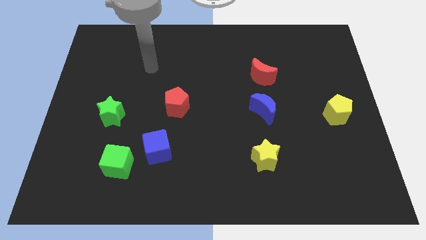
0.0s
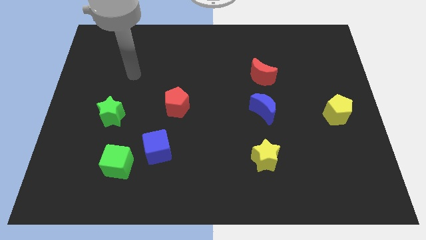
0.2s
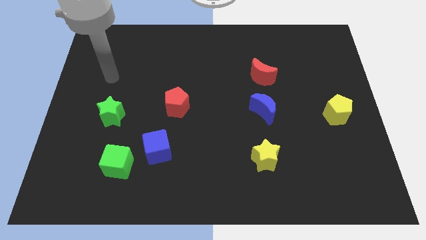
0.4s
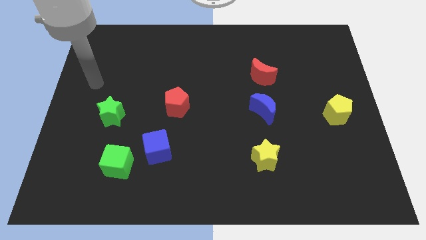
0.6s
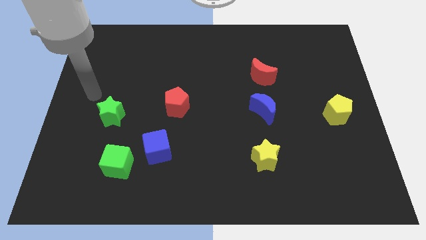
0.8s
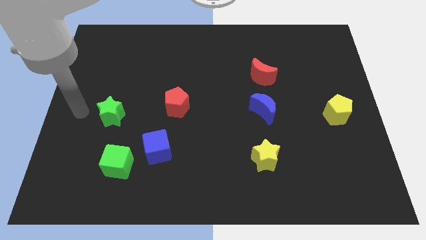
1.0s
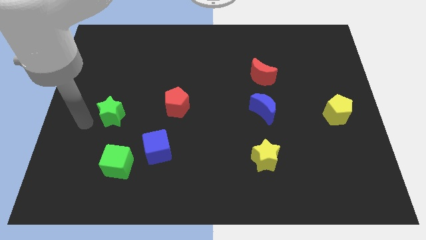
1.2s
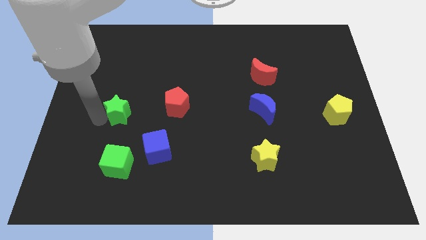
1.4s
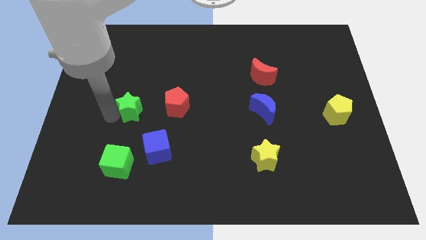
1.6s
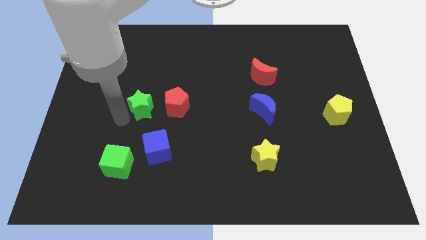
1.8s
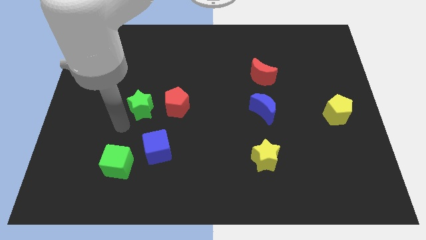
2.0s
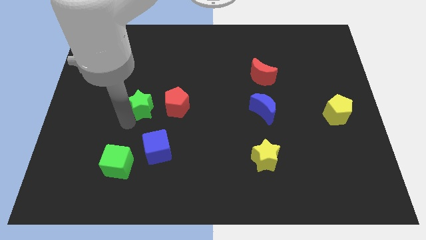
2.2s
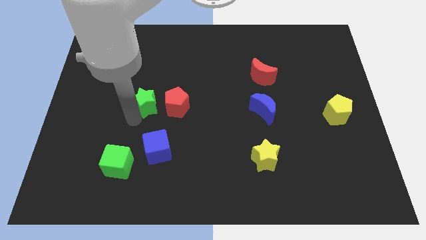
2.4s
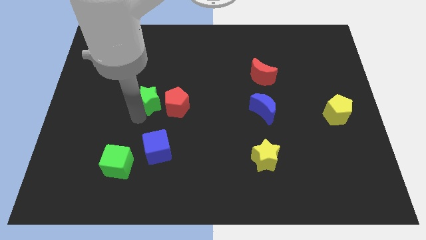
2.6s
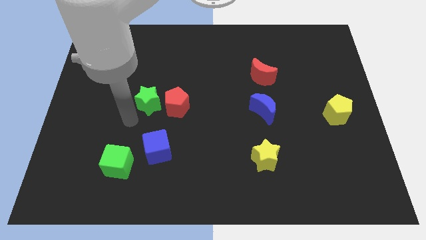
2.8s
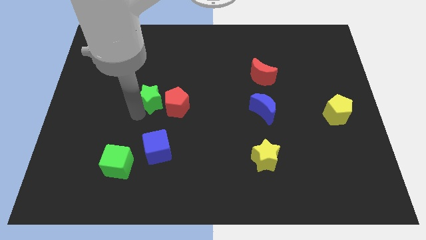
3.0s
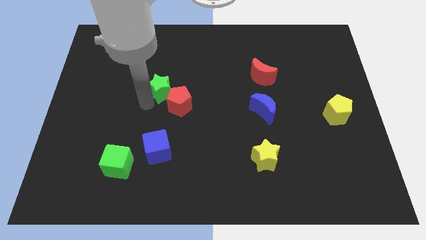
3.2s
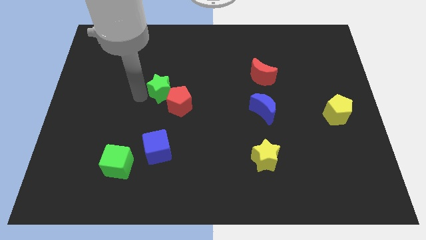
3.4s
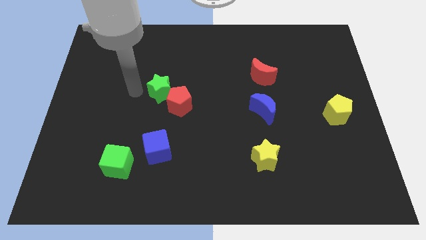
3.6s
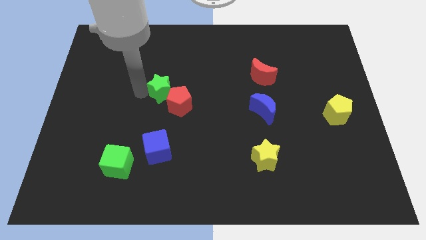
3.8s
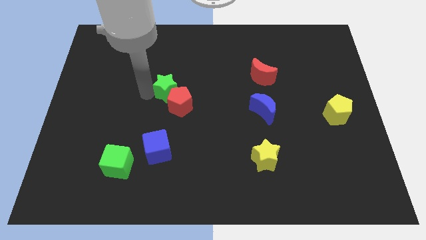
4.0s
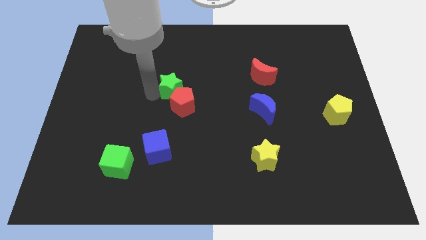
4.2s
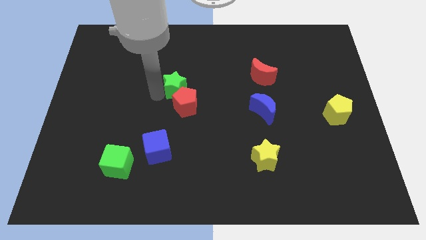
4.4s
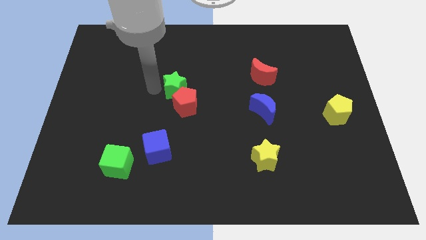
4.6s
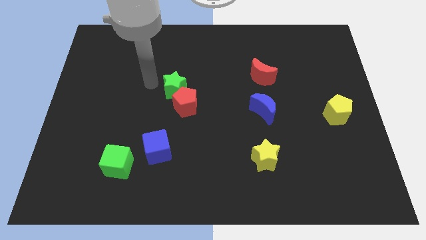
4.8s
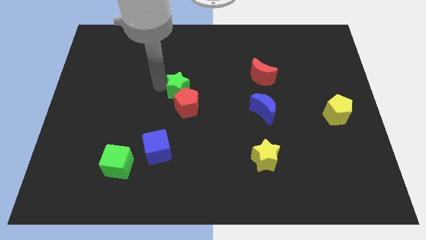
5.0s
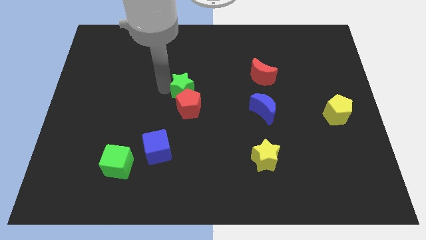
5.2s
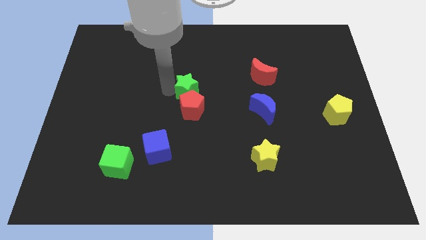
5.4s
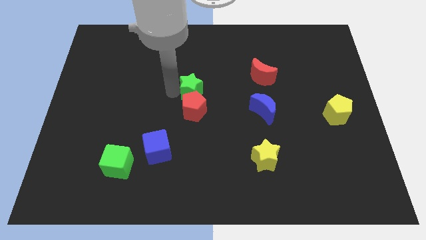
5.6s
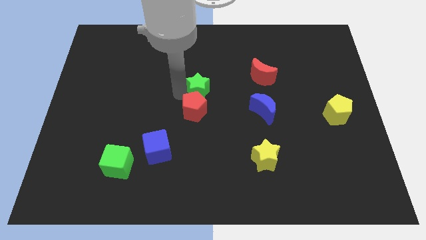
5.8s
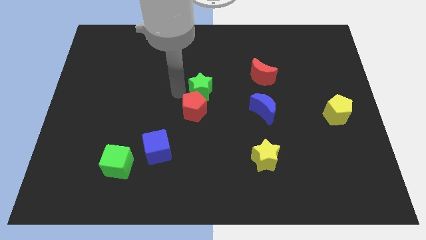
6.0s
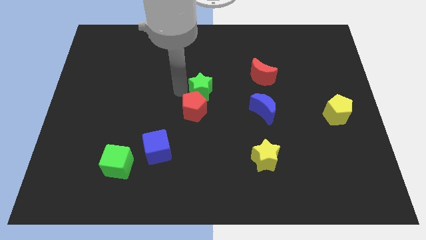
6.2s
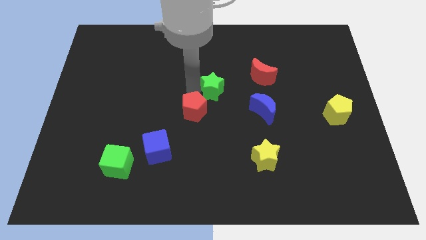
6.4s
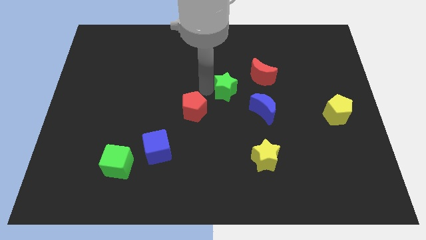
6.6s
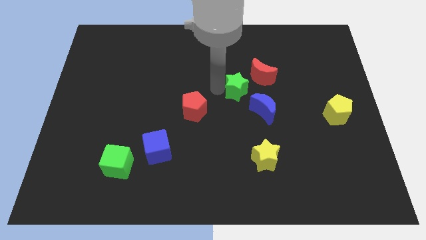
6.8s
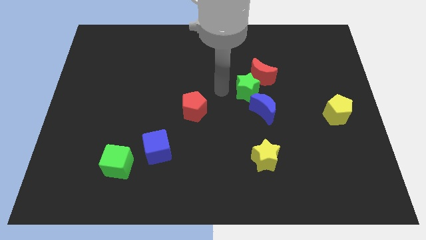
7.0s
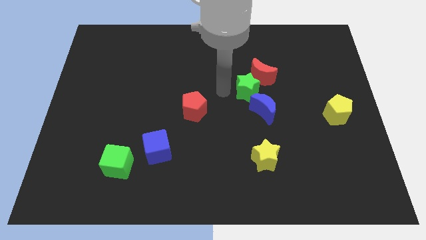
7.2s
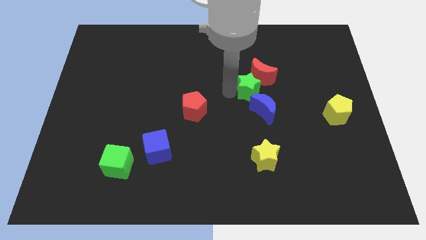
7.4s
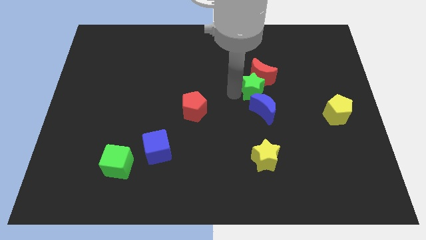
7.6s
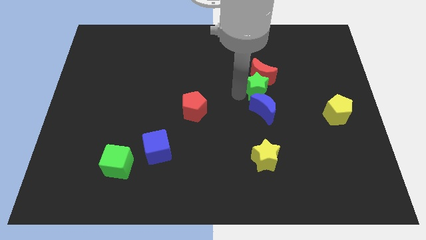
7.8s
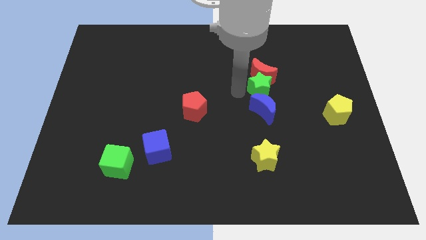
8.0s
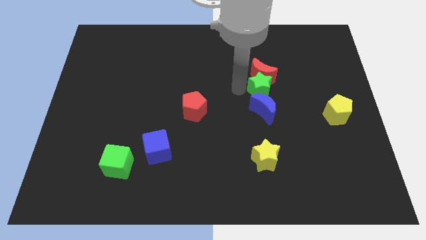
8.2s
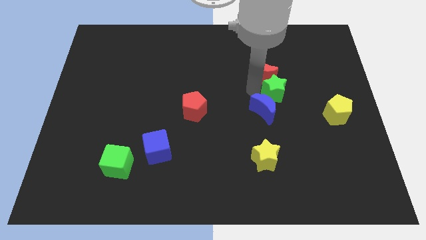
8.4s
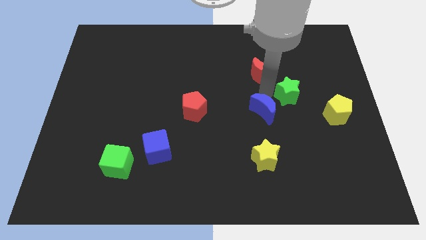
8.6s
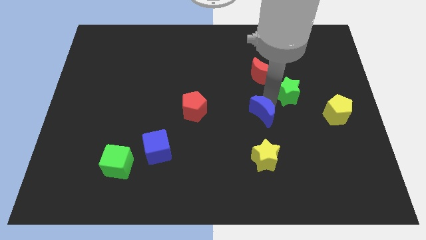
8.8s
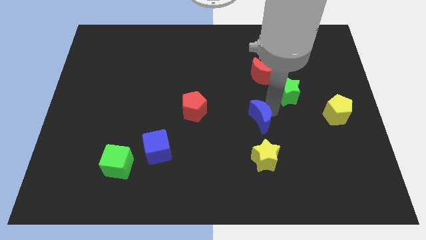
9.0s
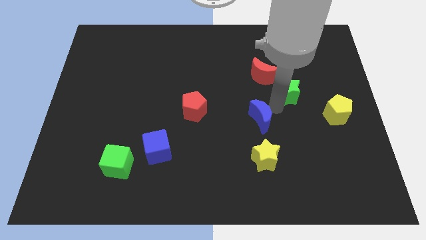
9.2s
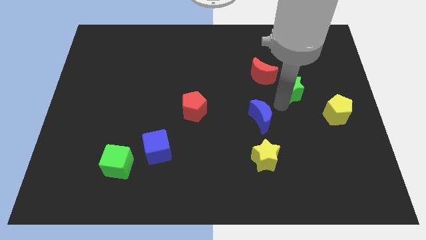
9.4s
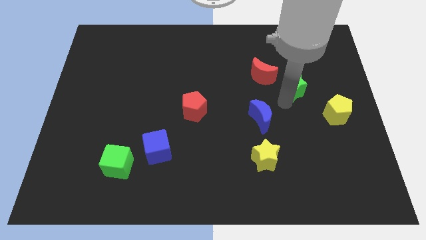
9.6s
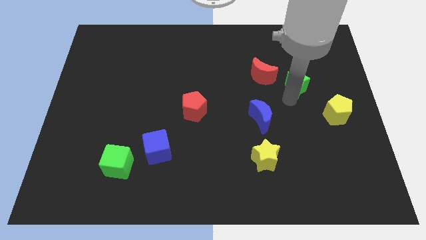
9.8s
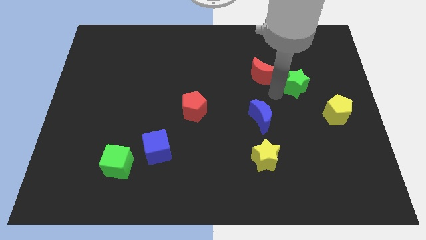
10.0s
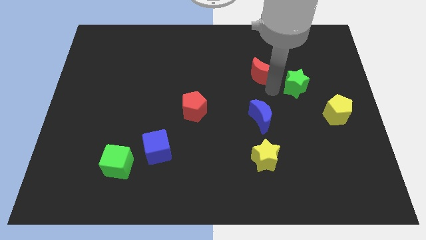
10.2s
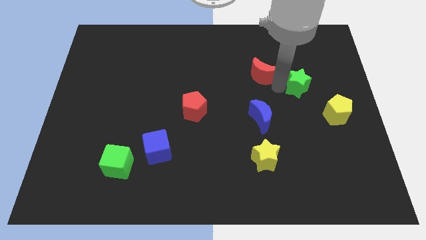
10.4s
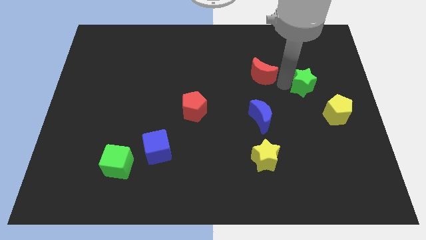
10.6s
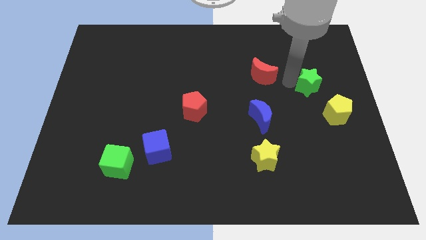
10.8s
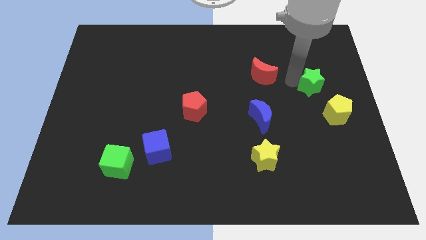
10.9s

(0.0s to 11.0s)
move the green star above the yellow pentagon

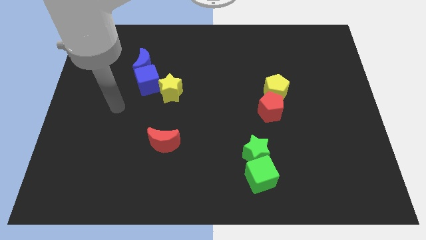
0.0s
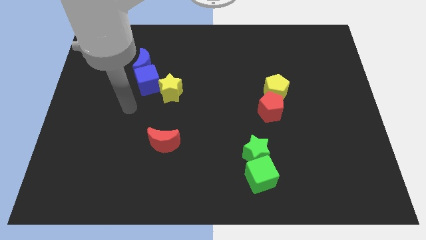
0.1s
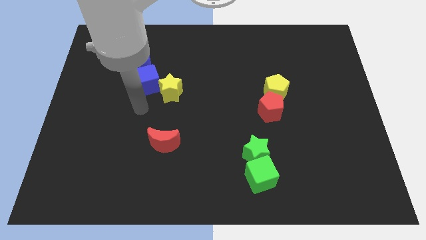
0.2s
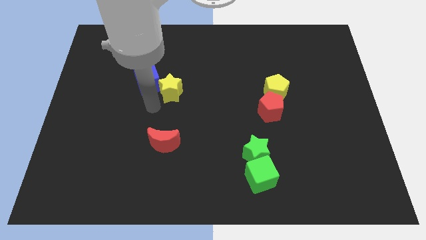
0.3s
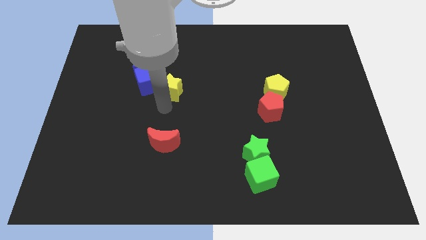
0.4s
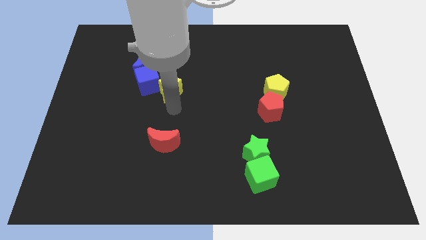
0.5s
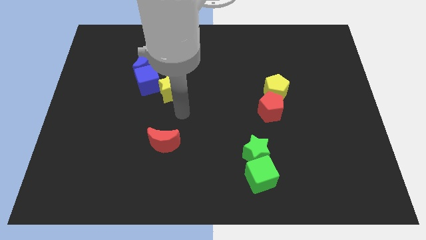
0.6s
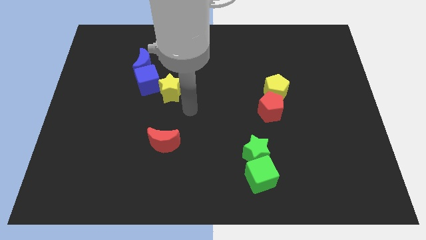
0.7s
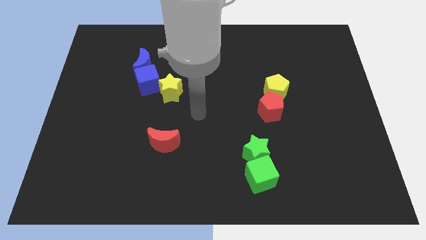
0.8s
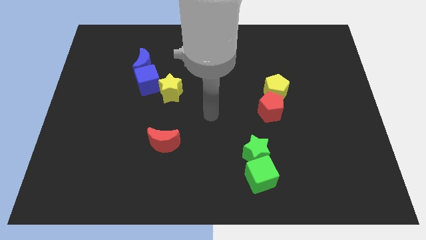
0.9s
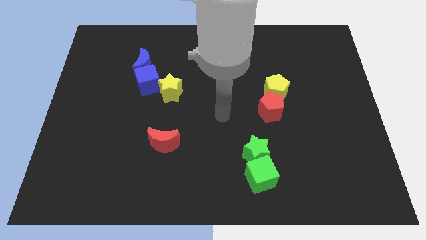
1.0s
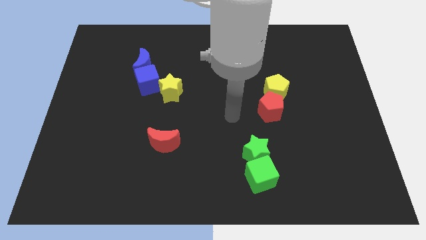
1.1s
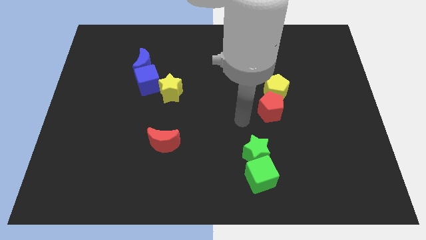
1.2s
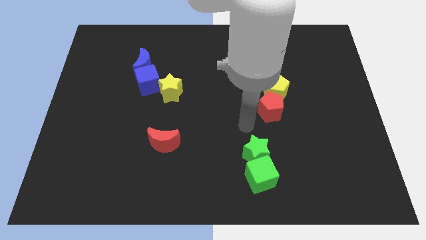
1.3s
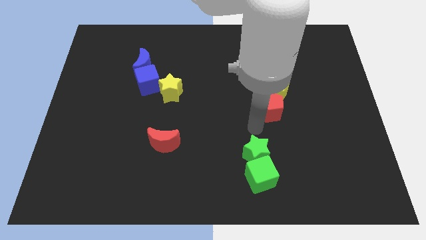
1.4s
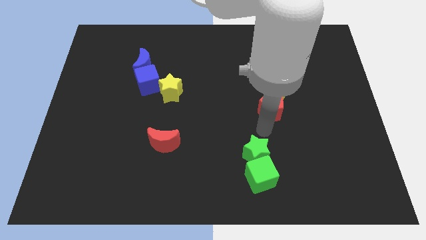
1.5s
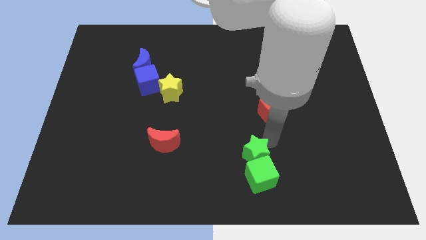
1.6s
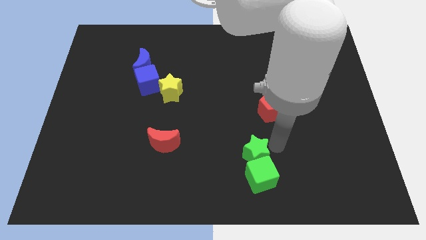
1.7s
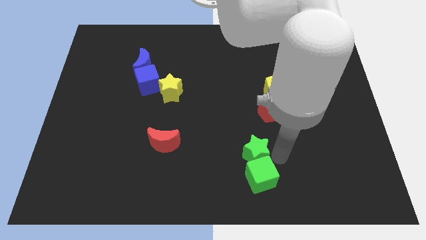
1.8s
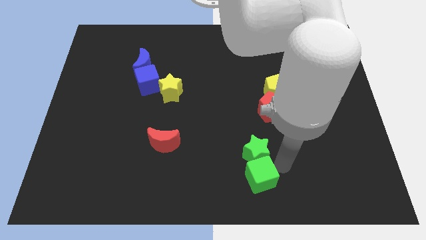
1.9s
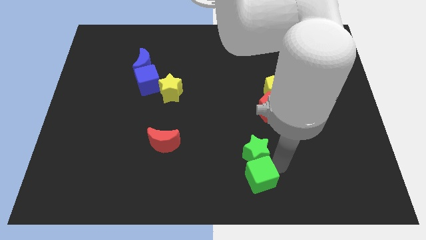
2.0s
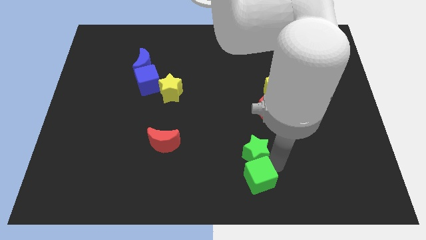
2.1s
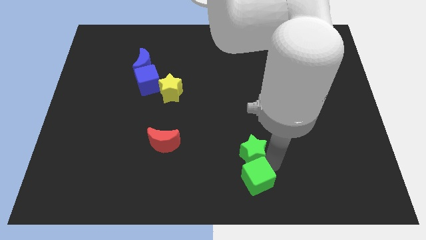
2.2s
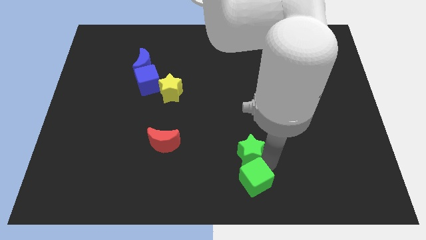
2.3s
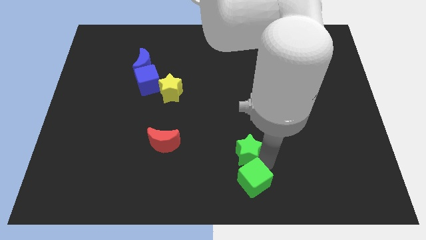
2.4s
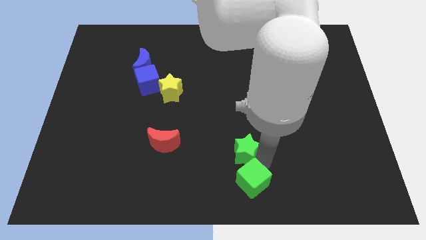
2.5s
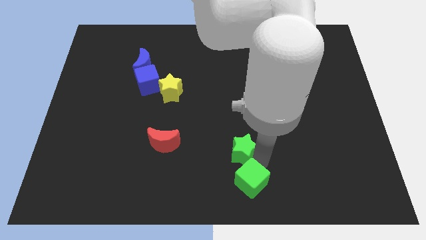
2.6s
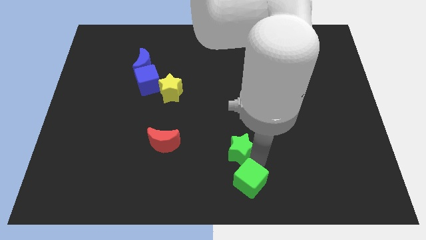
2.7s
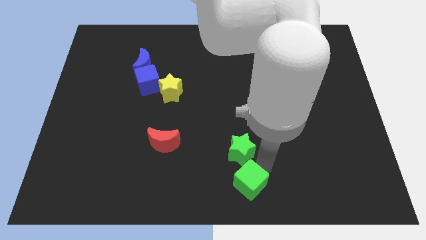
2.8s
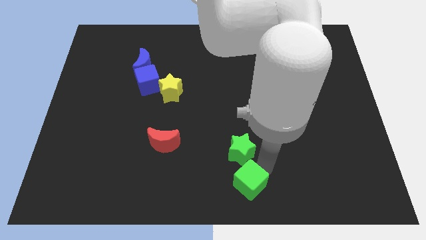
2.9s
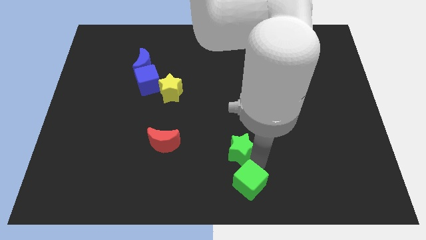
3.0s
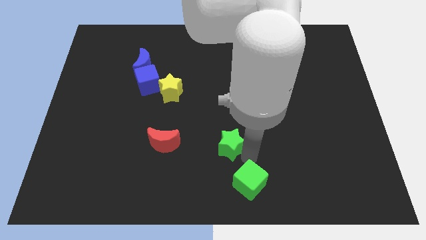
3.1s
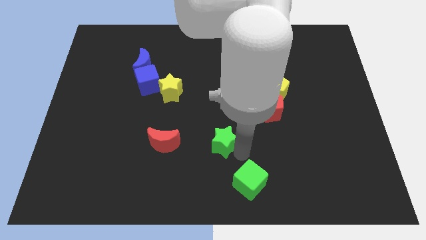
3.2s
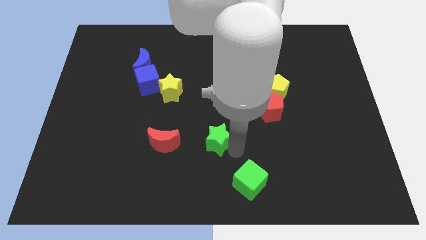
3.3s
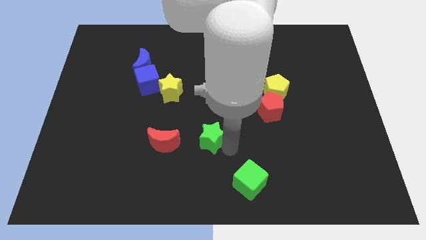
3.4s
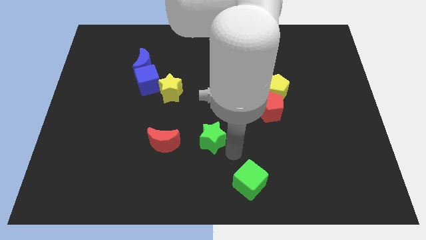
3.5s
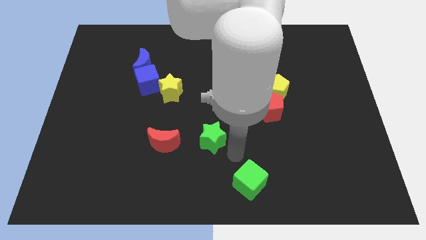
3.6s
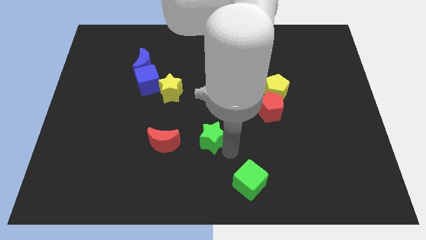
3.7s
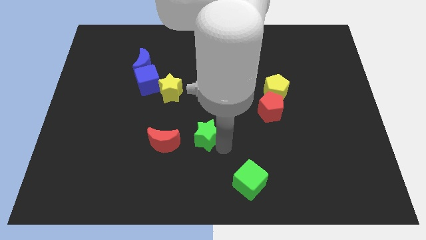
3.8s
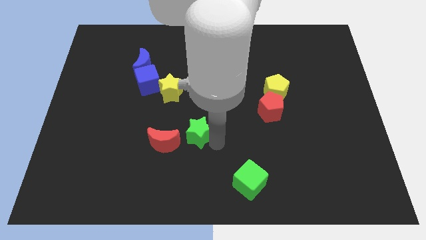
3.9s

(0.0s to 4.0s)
move the green star to the top right of the red moon
